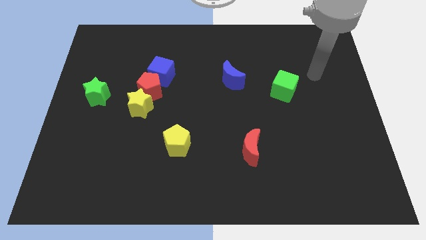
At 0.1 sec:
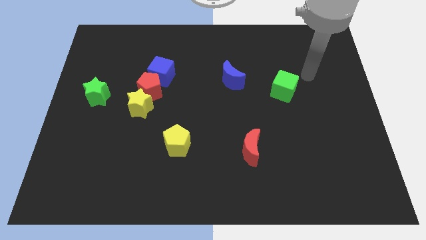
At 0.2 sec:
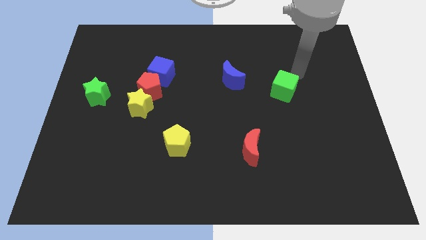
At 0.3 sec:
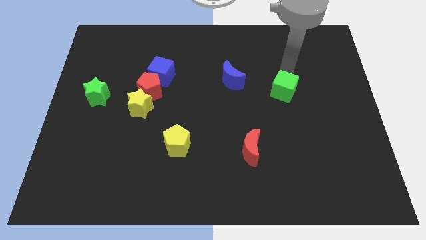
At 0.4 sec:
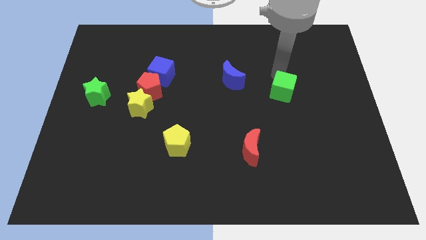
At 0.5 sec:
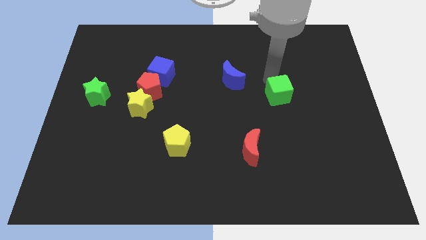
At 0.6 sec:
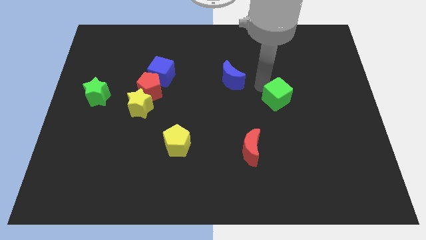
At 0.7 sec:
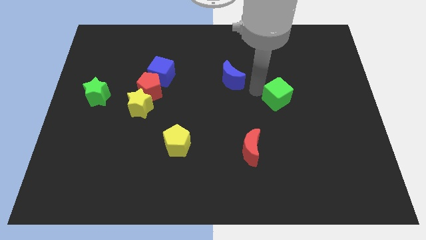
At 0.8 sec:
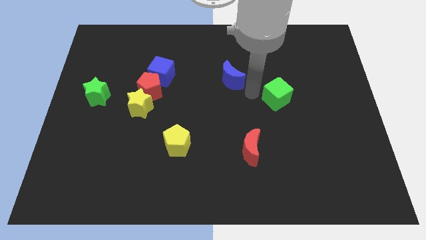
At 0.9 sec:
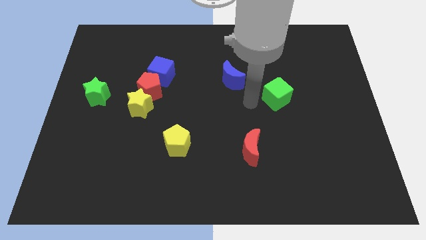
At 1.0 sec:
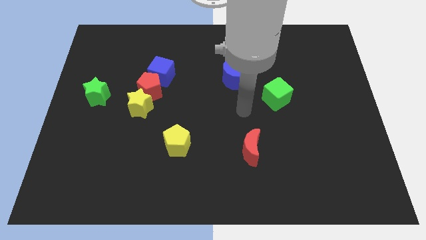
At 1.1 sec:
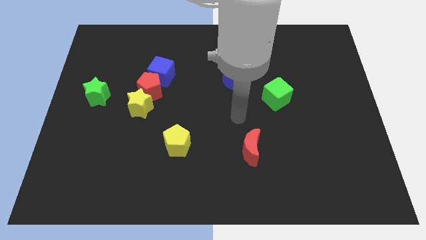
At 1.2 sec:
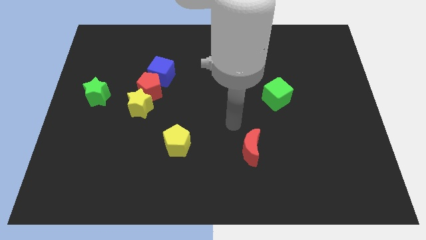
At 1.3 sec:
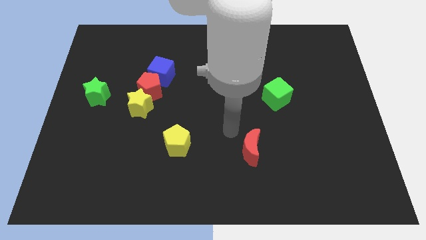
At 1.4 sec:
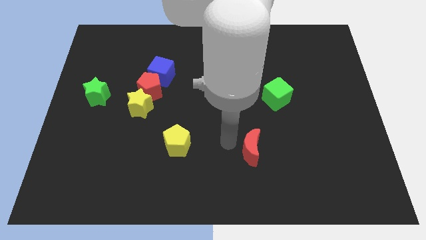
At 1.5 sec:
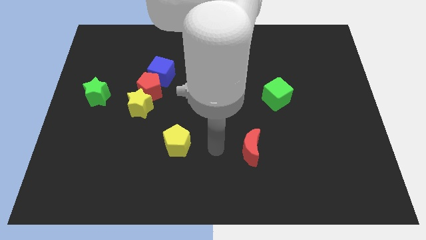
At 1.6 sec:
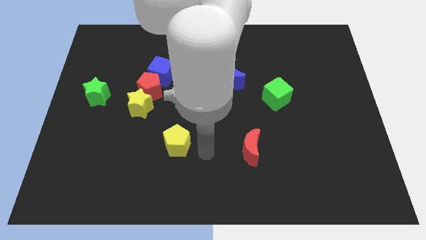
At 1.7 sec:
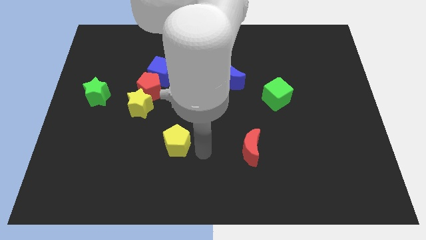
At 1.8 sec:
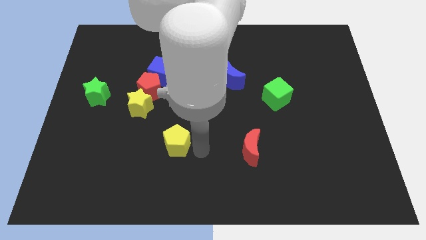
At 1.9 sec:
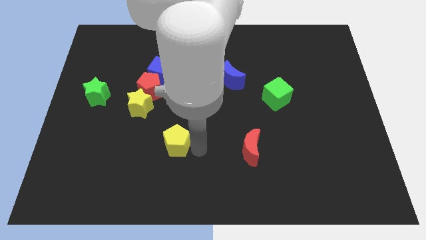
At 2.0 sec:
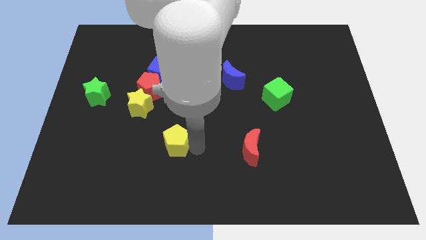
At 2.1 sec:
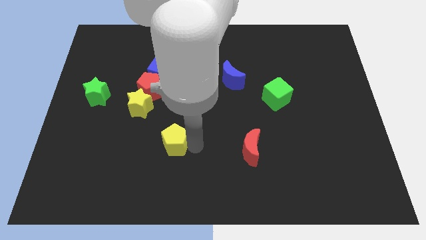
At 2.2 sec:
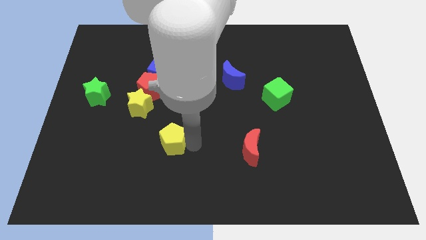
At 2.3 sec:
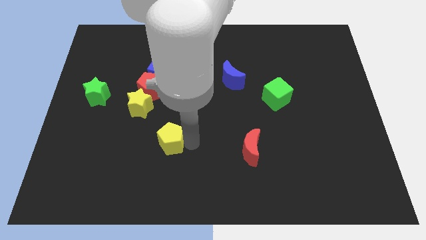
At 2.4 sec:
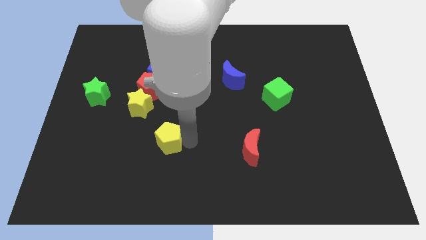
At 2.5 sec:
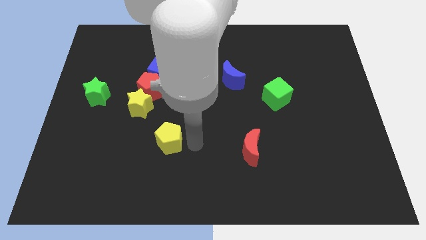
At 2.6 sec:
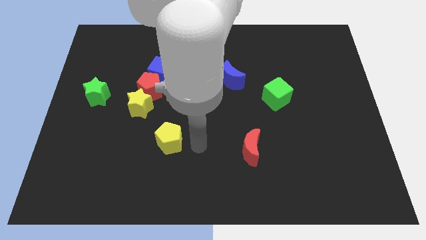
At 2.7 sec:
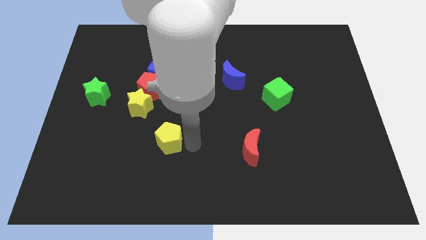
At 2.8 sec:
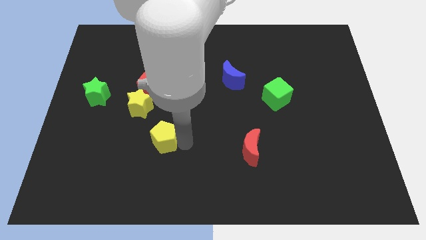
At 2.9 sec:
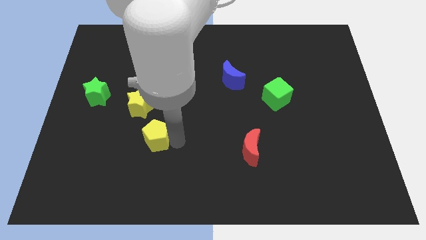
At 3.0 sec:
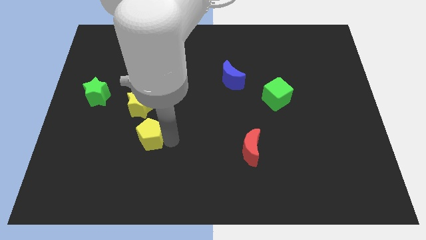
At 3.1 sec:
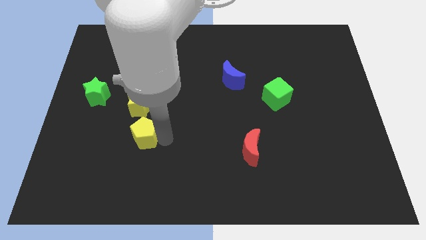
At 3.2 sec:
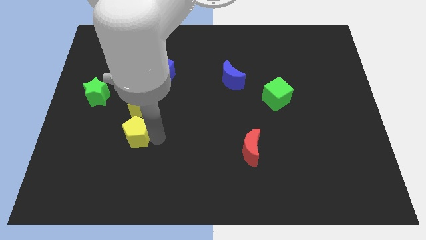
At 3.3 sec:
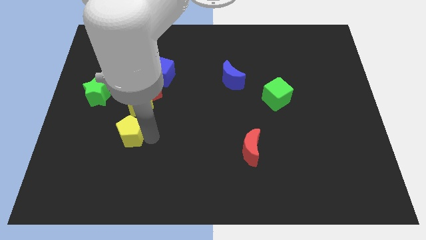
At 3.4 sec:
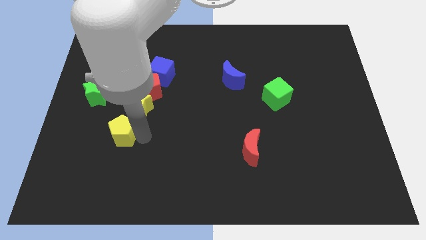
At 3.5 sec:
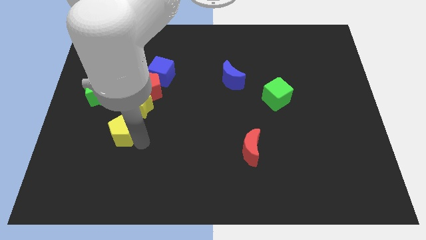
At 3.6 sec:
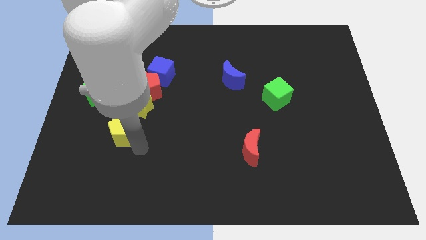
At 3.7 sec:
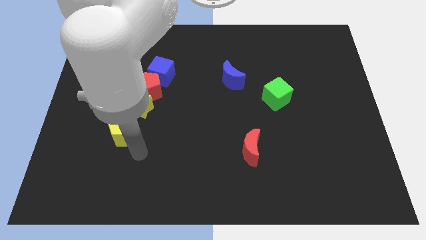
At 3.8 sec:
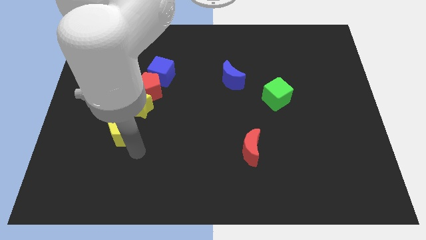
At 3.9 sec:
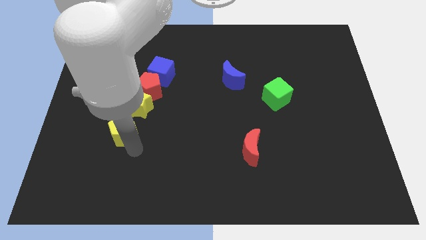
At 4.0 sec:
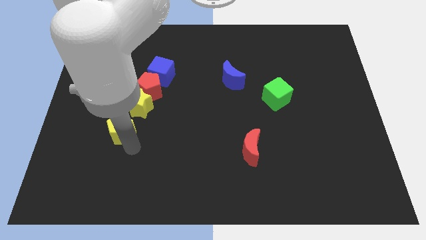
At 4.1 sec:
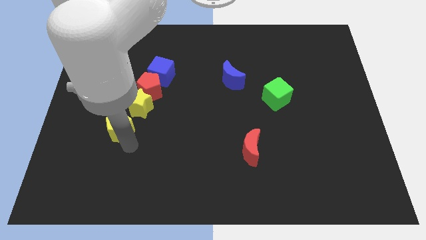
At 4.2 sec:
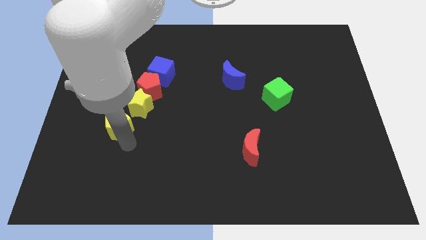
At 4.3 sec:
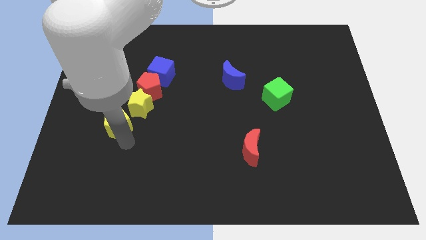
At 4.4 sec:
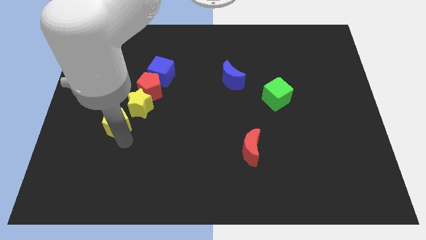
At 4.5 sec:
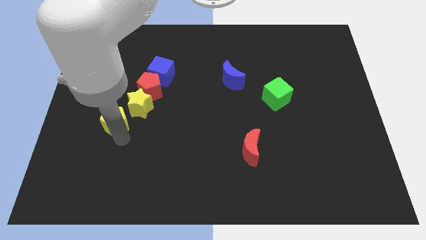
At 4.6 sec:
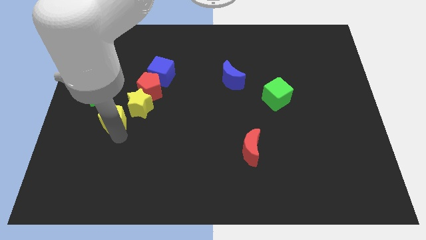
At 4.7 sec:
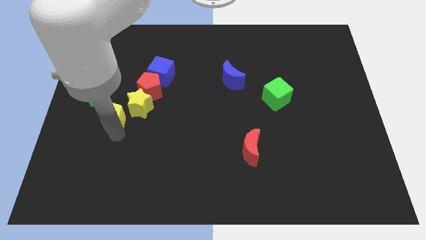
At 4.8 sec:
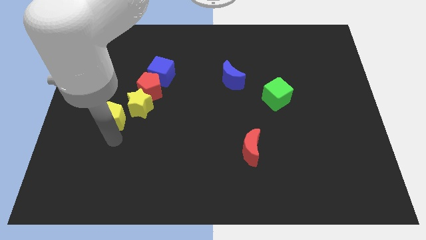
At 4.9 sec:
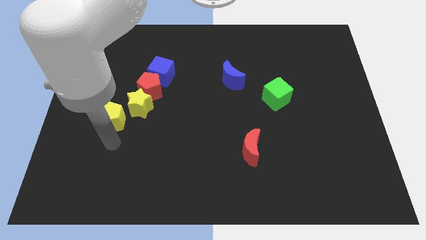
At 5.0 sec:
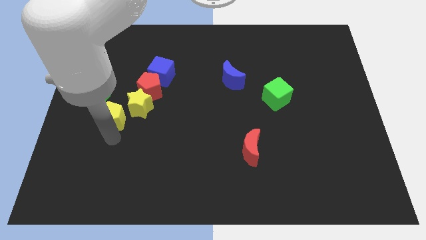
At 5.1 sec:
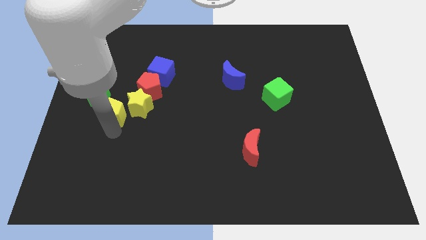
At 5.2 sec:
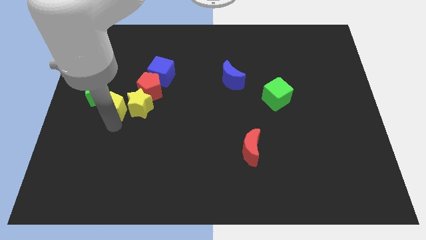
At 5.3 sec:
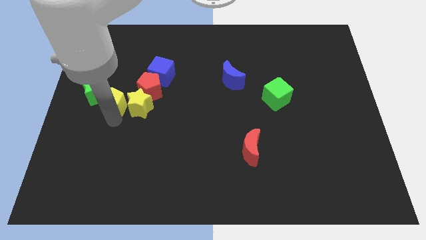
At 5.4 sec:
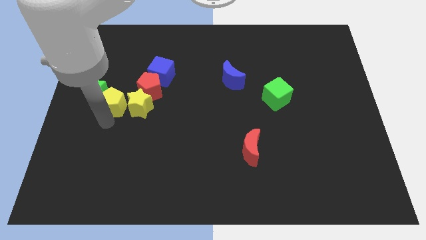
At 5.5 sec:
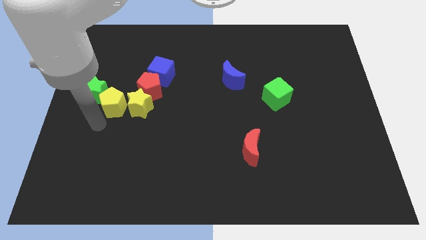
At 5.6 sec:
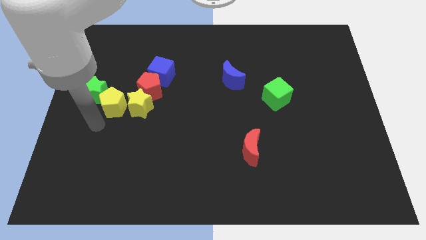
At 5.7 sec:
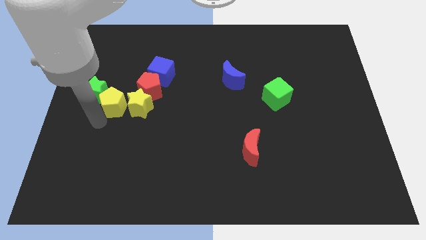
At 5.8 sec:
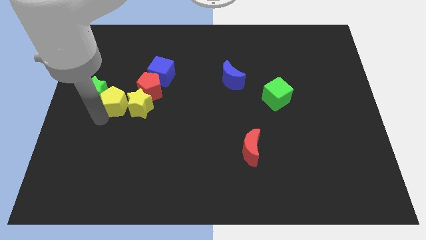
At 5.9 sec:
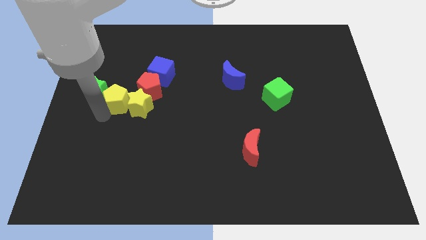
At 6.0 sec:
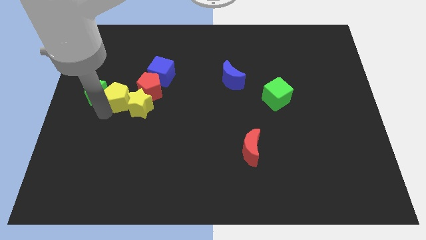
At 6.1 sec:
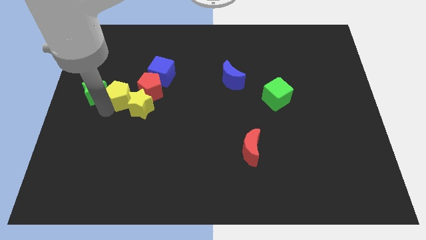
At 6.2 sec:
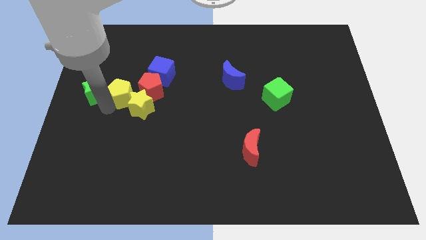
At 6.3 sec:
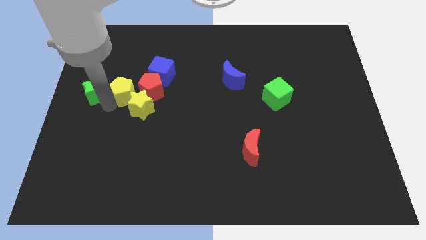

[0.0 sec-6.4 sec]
push the yellow pentagon above the yellow star

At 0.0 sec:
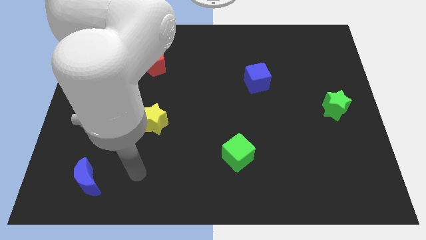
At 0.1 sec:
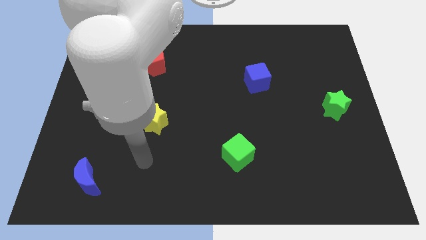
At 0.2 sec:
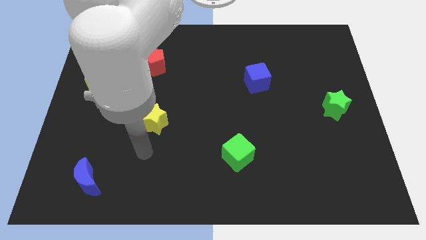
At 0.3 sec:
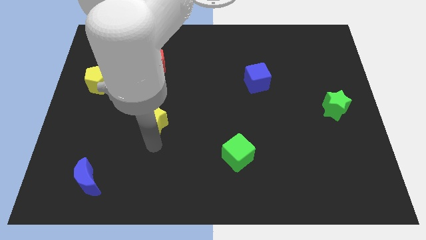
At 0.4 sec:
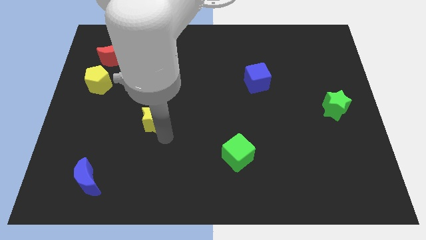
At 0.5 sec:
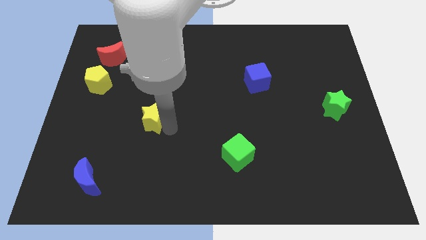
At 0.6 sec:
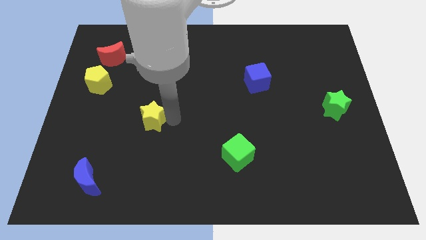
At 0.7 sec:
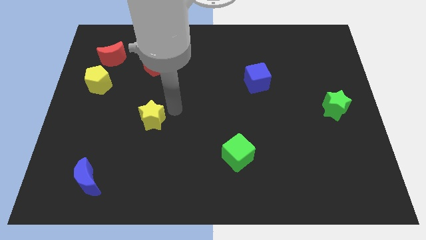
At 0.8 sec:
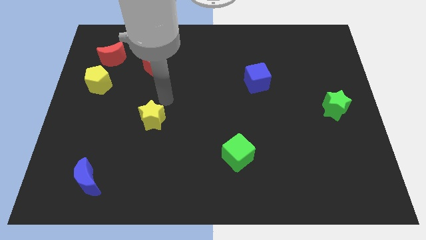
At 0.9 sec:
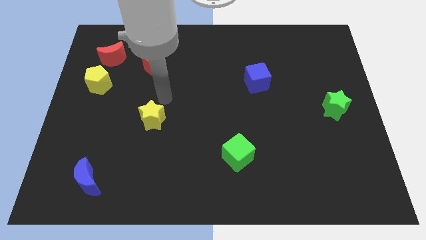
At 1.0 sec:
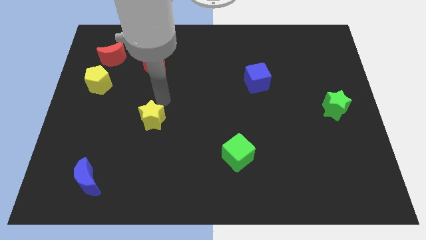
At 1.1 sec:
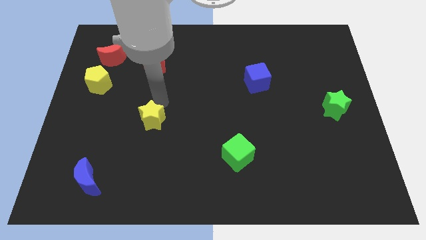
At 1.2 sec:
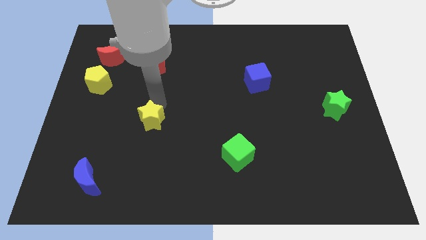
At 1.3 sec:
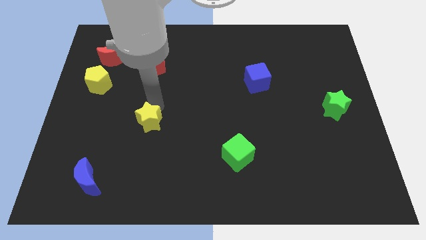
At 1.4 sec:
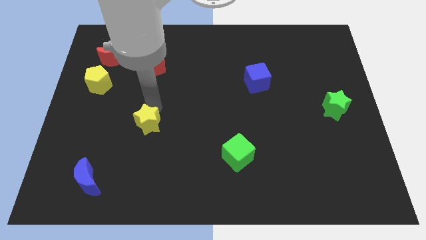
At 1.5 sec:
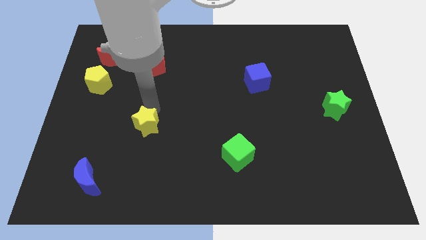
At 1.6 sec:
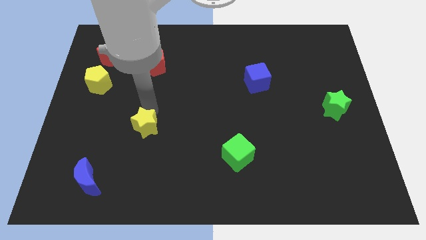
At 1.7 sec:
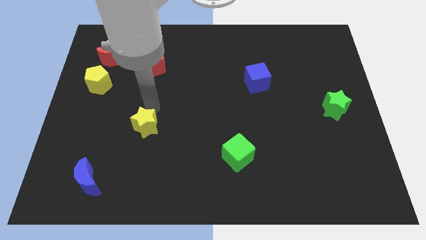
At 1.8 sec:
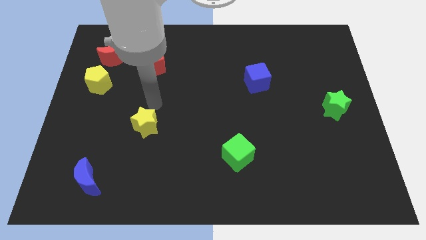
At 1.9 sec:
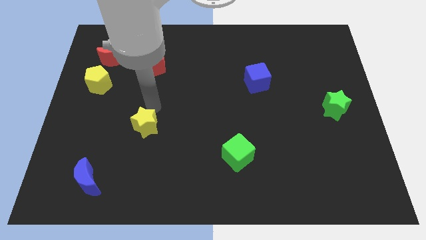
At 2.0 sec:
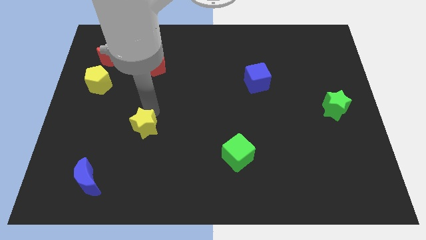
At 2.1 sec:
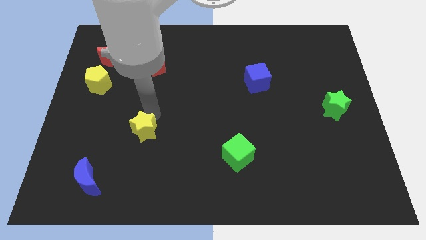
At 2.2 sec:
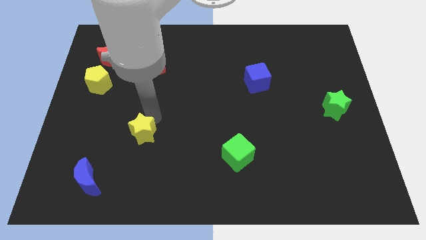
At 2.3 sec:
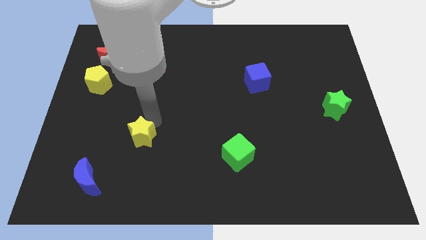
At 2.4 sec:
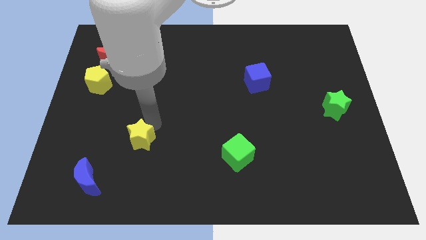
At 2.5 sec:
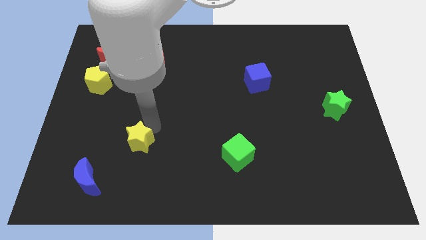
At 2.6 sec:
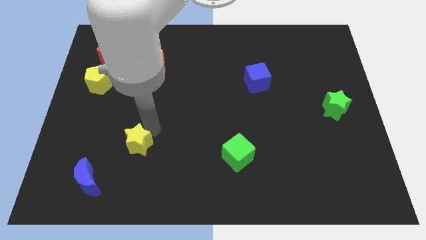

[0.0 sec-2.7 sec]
put the yellow star diagonally up and to the right of the blue moon
